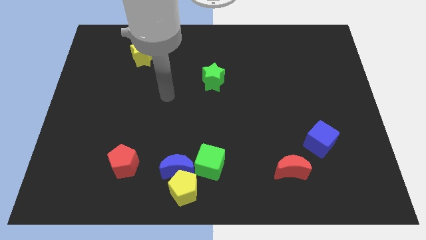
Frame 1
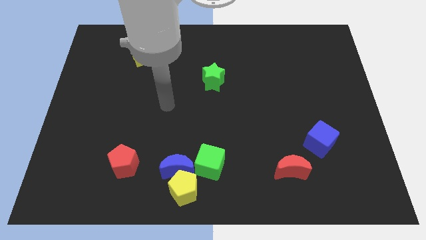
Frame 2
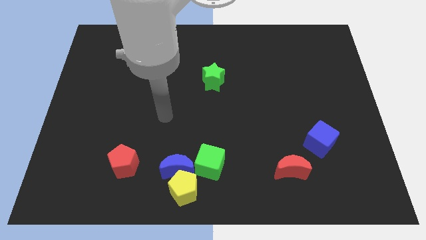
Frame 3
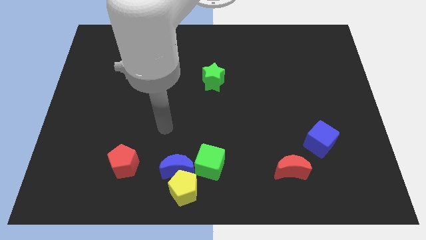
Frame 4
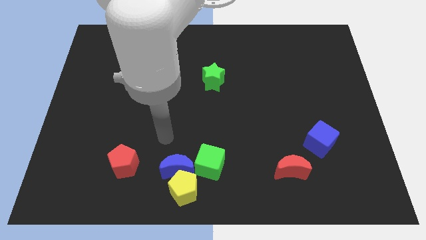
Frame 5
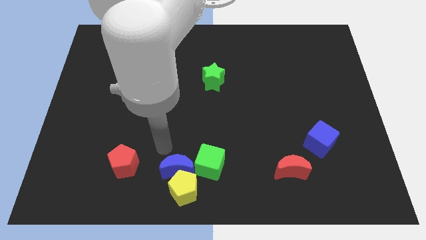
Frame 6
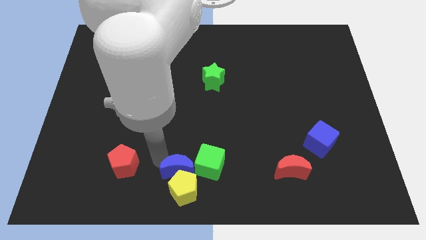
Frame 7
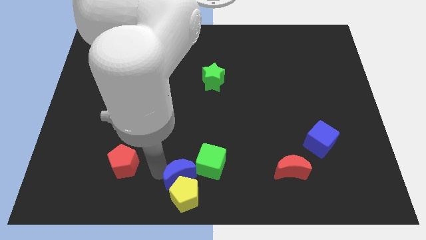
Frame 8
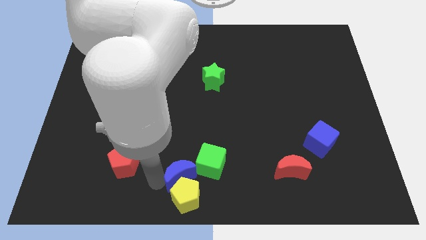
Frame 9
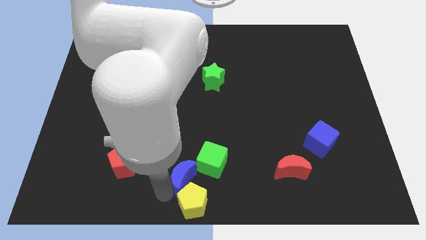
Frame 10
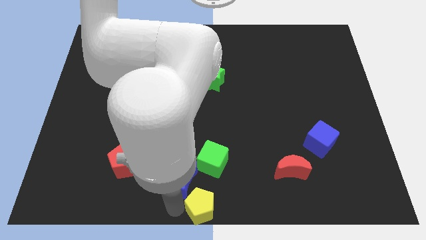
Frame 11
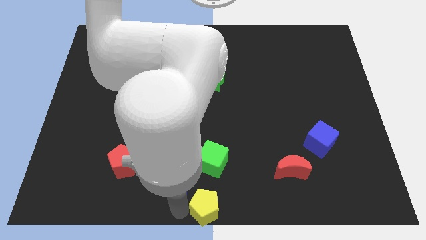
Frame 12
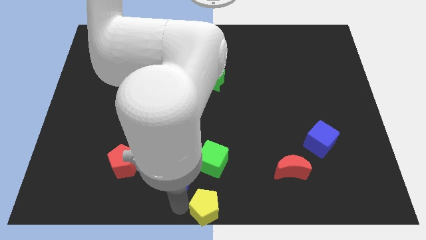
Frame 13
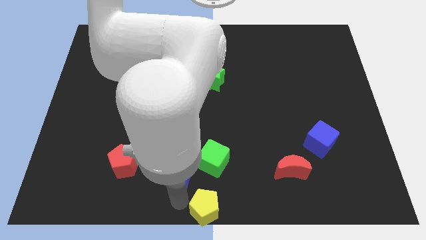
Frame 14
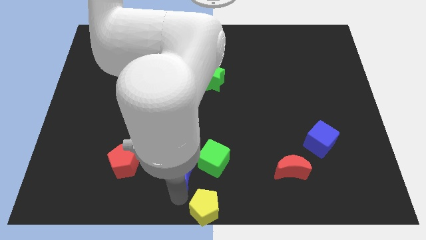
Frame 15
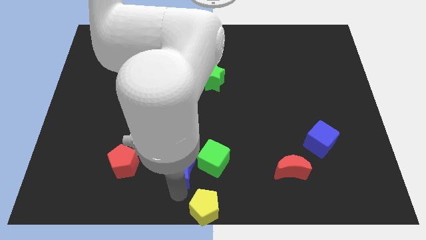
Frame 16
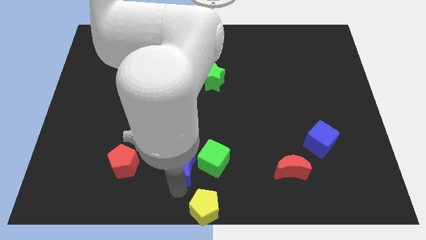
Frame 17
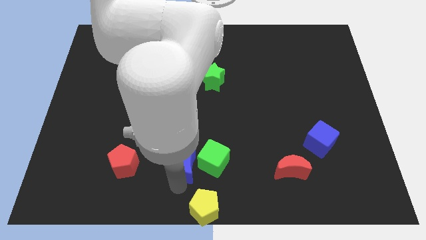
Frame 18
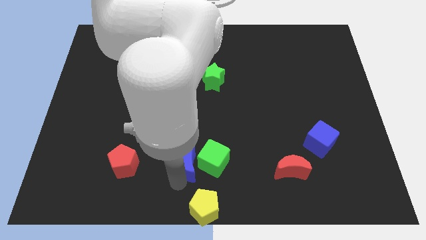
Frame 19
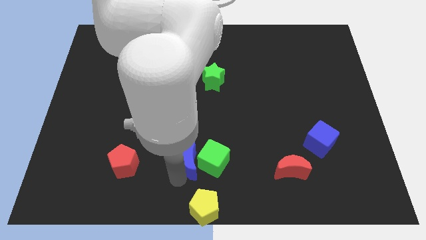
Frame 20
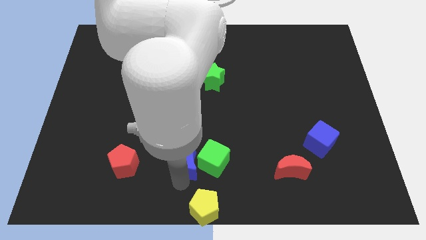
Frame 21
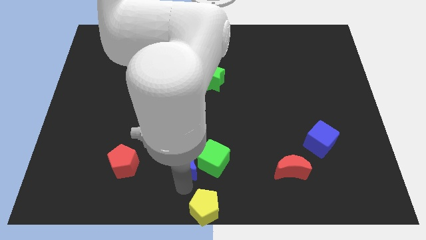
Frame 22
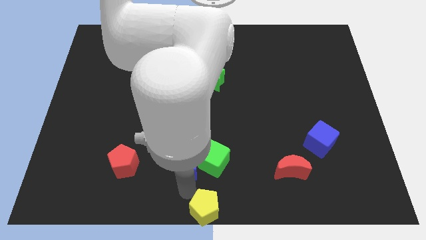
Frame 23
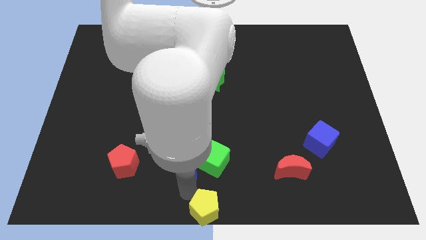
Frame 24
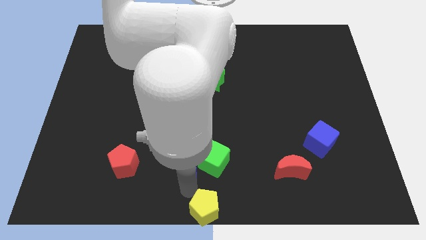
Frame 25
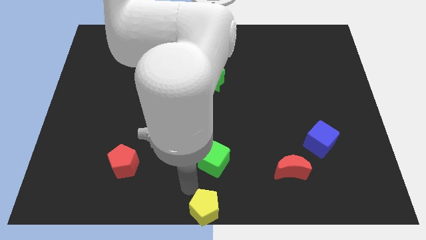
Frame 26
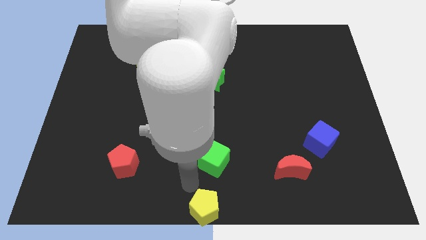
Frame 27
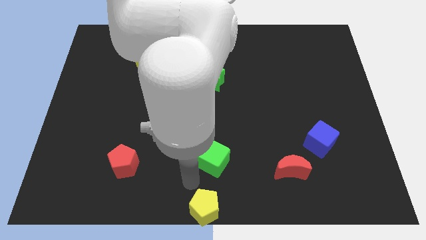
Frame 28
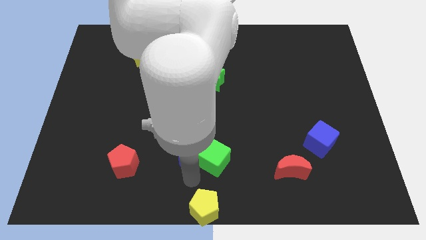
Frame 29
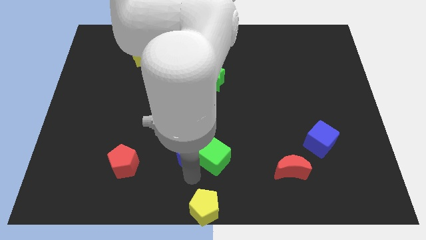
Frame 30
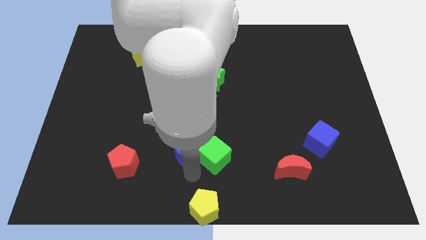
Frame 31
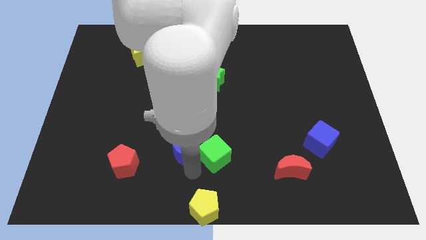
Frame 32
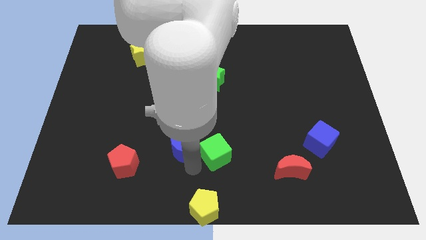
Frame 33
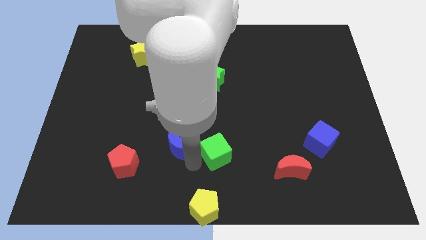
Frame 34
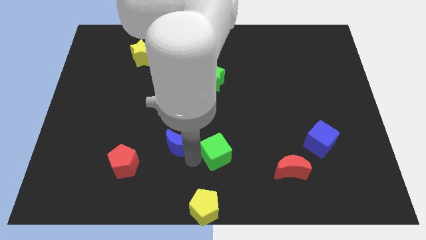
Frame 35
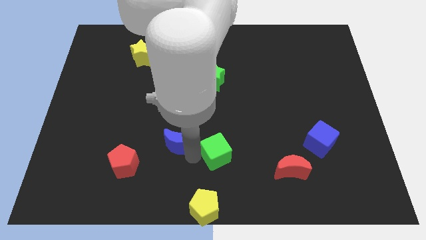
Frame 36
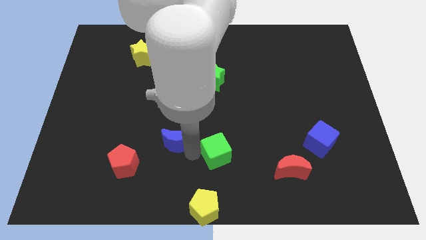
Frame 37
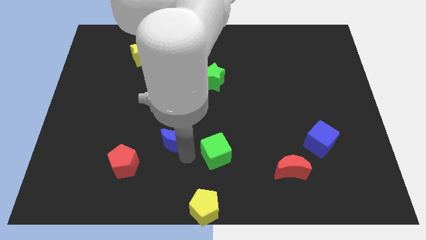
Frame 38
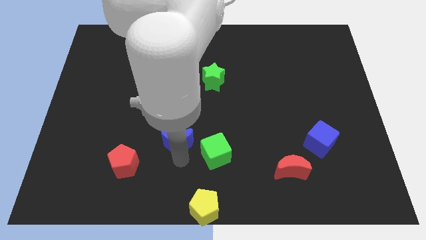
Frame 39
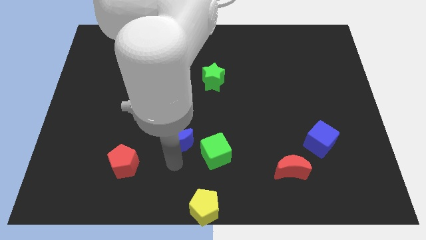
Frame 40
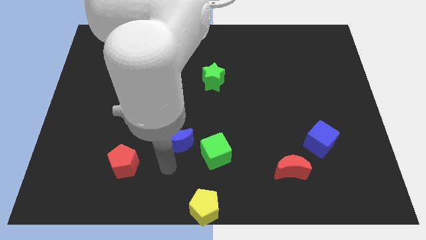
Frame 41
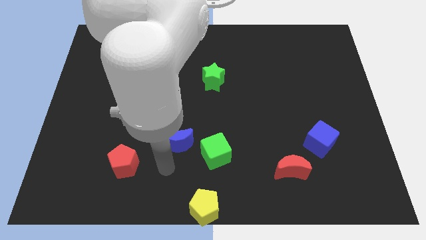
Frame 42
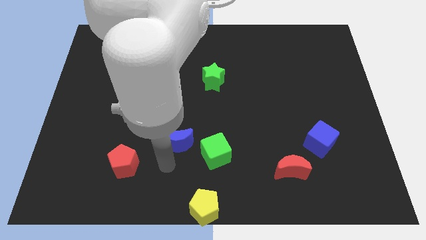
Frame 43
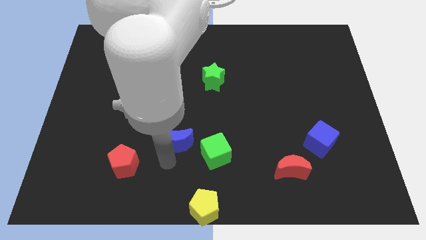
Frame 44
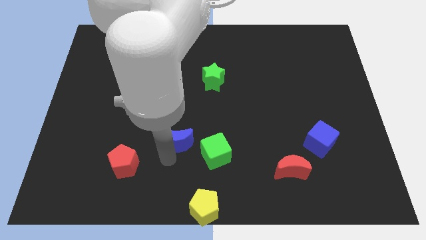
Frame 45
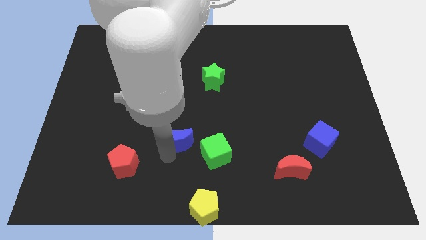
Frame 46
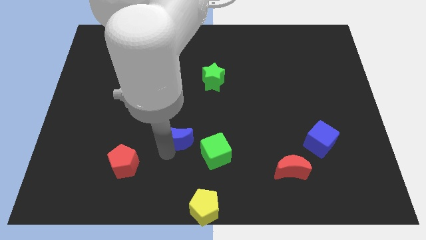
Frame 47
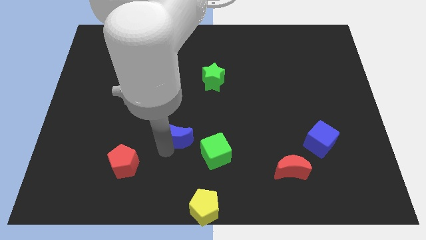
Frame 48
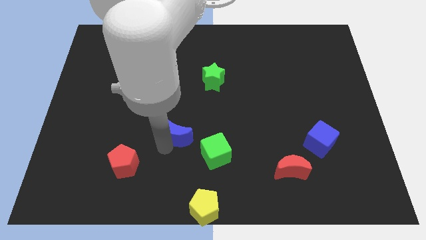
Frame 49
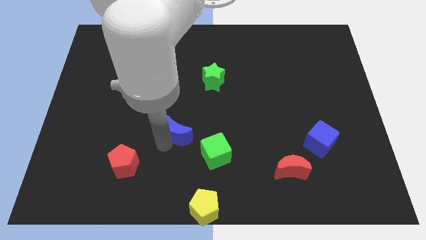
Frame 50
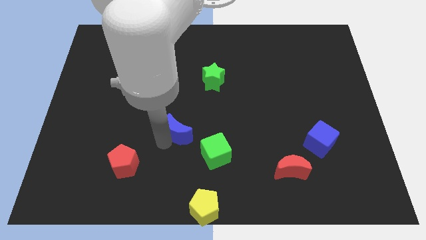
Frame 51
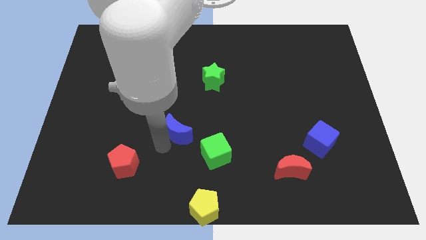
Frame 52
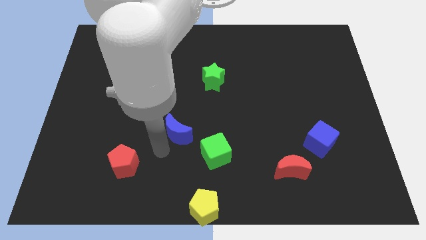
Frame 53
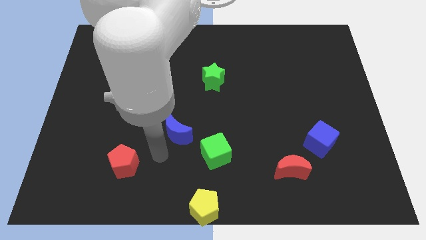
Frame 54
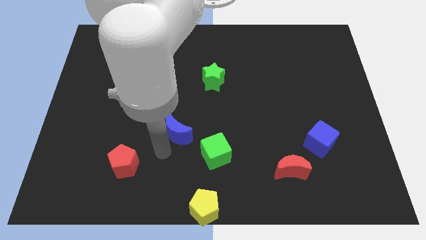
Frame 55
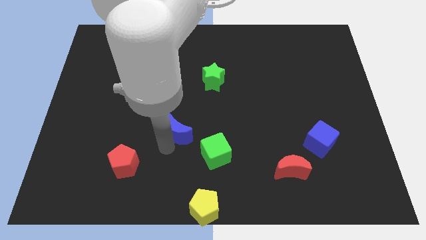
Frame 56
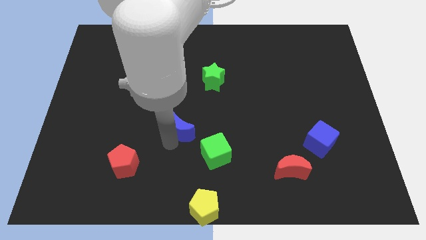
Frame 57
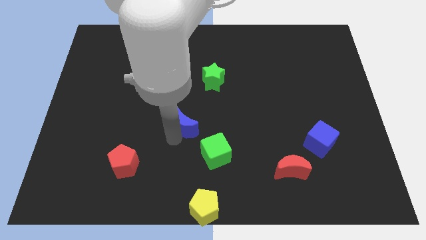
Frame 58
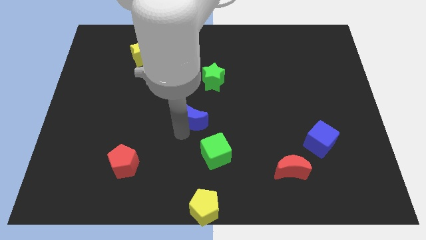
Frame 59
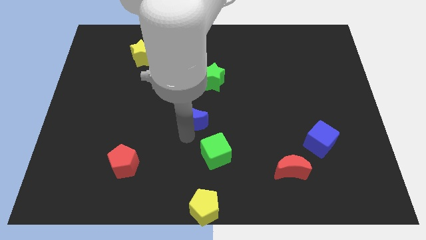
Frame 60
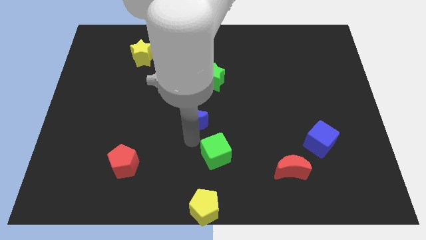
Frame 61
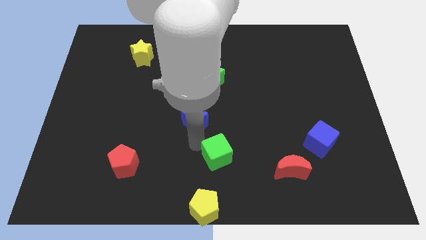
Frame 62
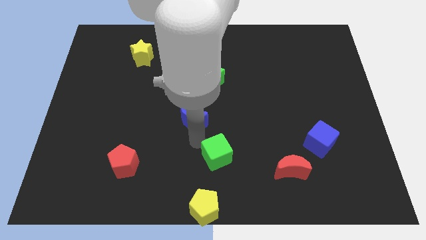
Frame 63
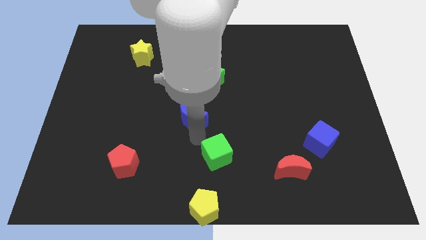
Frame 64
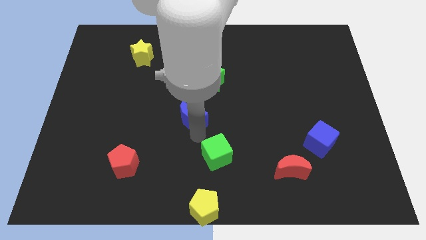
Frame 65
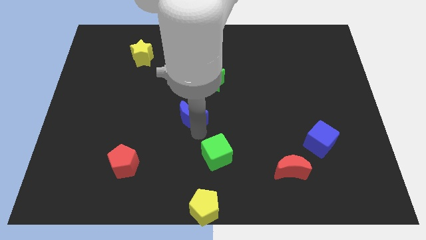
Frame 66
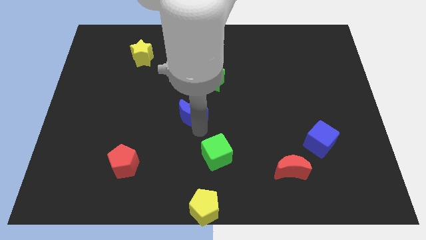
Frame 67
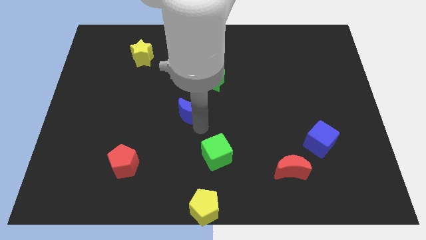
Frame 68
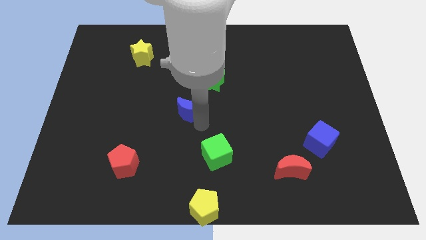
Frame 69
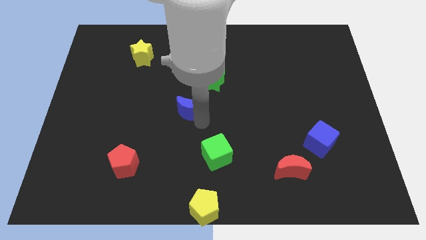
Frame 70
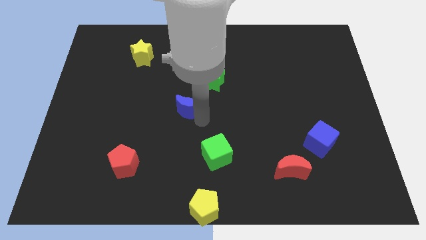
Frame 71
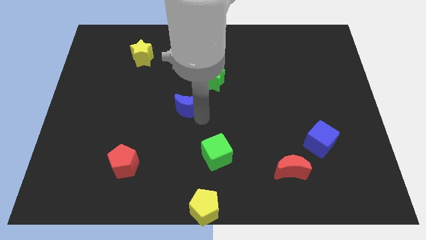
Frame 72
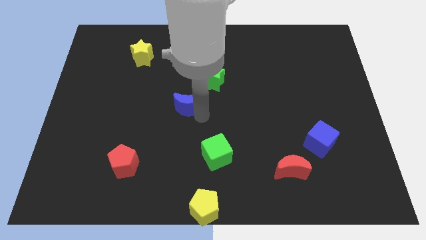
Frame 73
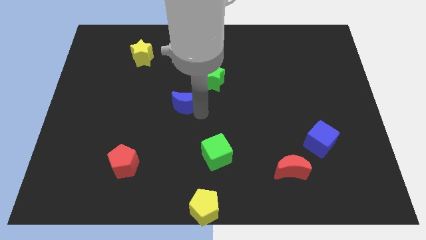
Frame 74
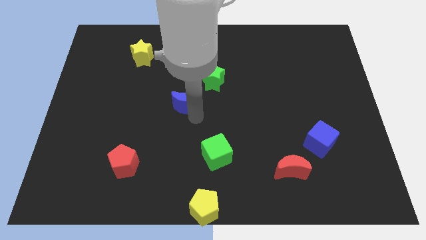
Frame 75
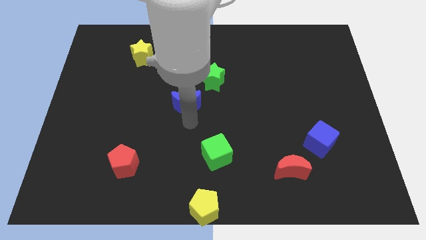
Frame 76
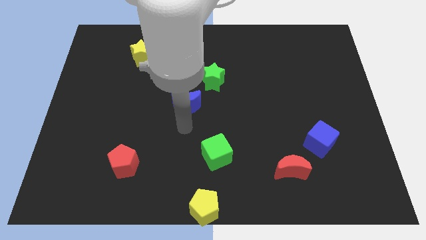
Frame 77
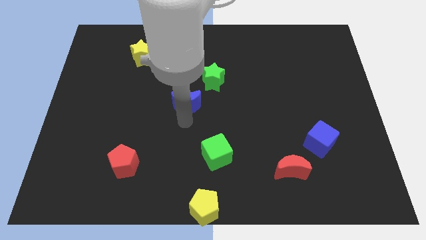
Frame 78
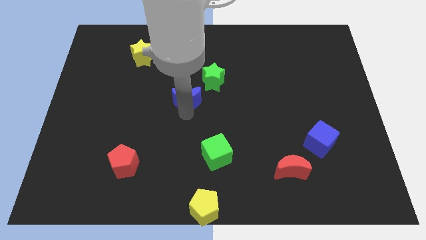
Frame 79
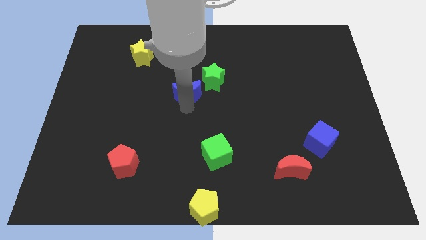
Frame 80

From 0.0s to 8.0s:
slide the blue moon up

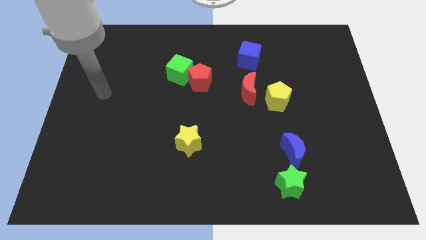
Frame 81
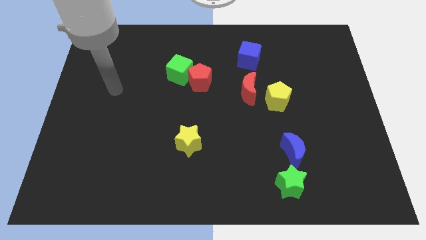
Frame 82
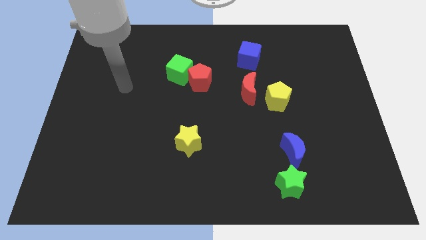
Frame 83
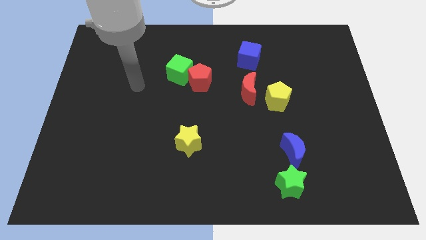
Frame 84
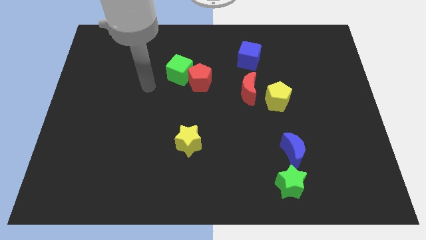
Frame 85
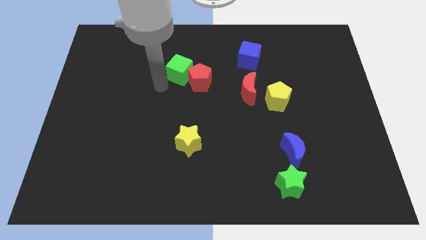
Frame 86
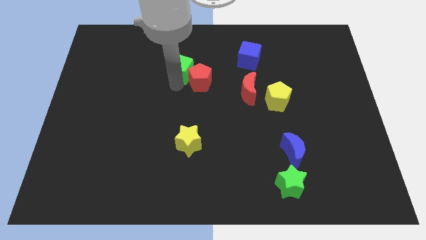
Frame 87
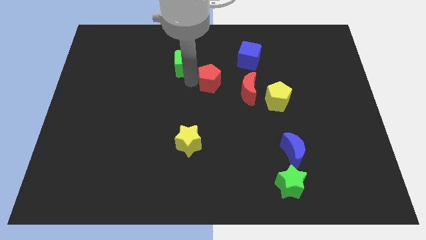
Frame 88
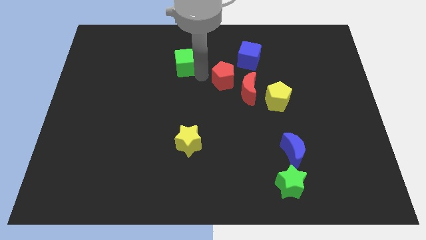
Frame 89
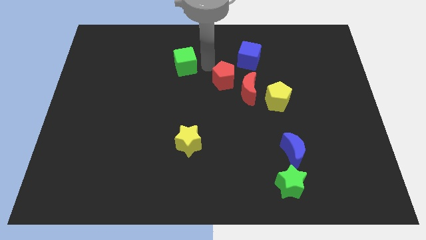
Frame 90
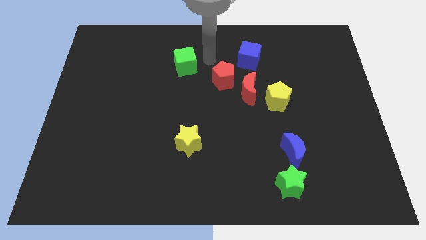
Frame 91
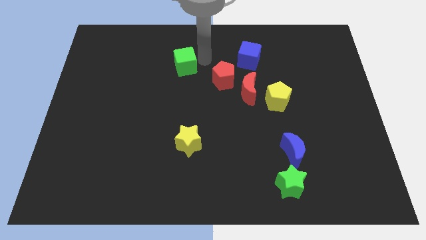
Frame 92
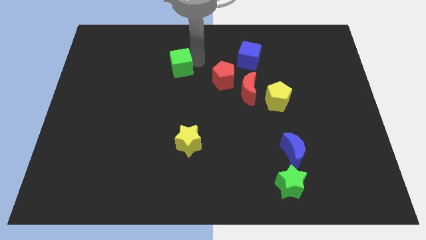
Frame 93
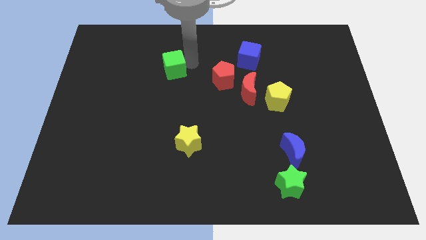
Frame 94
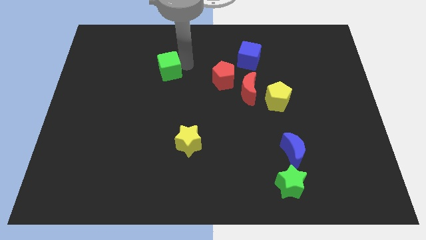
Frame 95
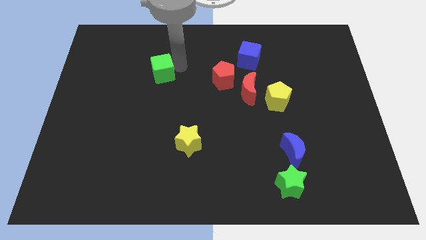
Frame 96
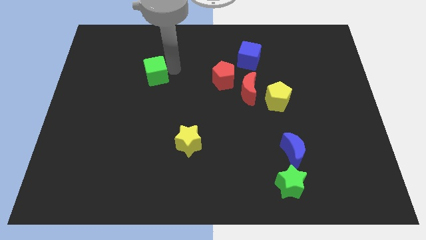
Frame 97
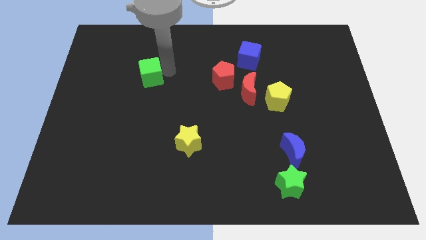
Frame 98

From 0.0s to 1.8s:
slightly slide the green cube to the left
